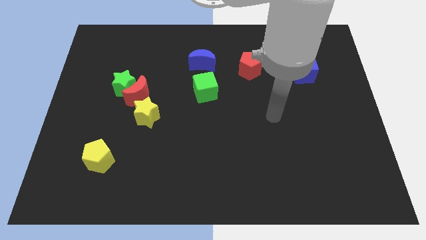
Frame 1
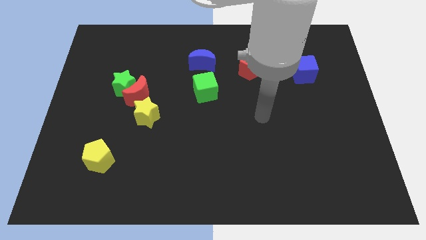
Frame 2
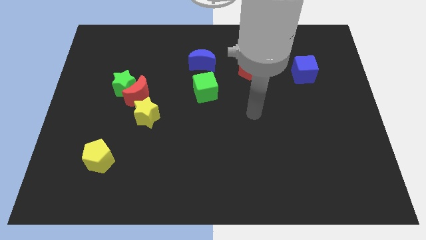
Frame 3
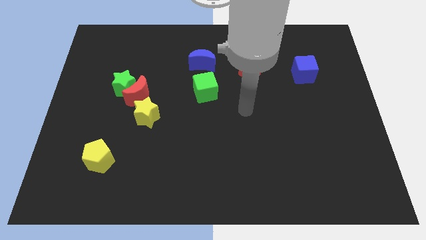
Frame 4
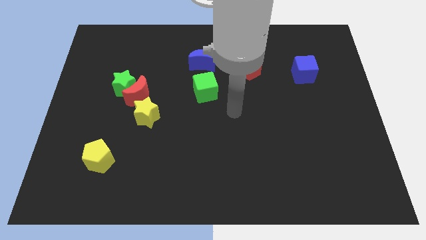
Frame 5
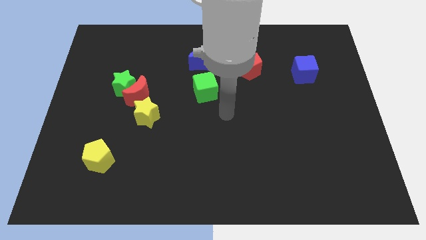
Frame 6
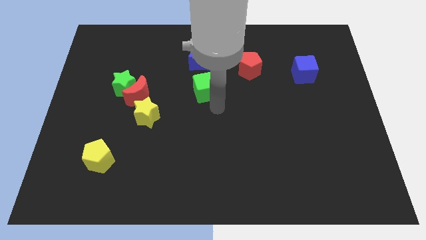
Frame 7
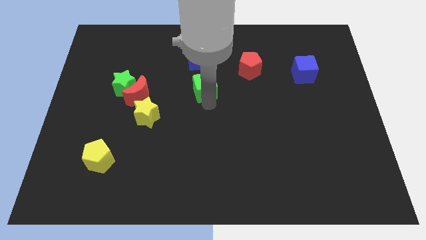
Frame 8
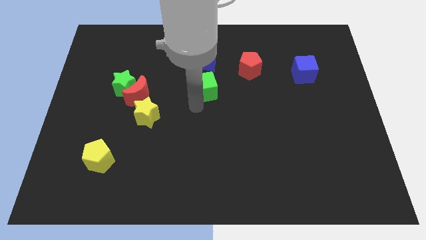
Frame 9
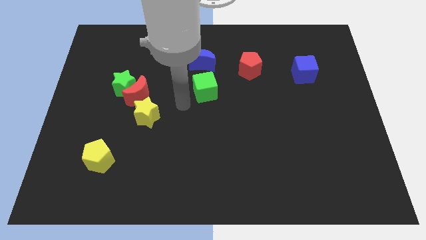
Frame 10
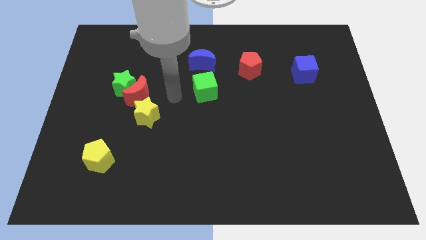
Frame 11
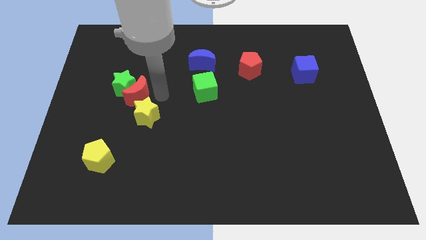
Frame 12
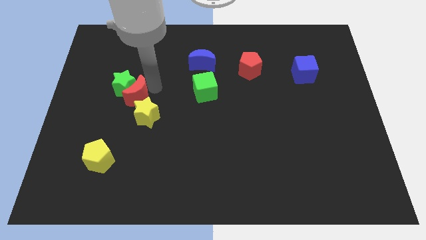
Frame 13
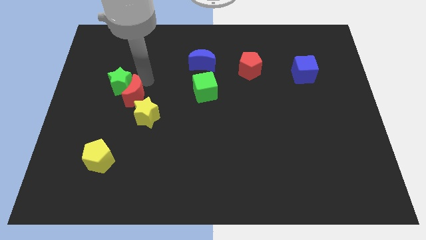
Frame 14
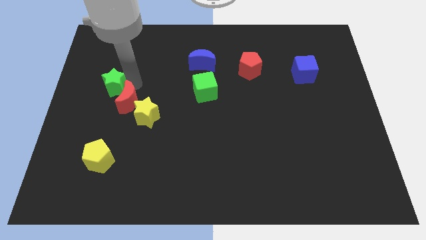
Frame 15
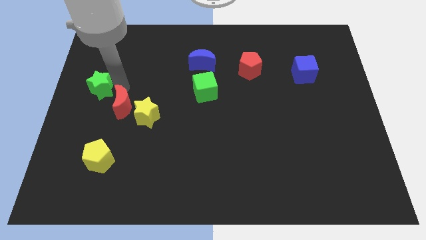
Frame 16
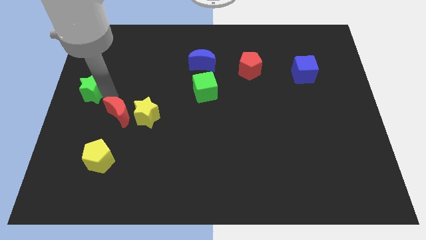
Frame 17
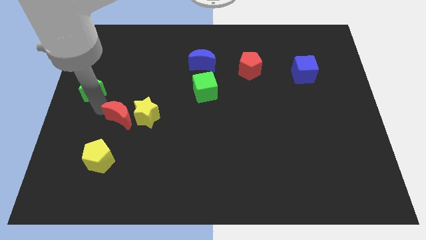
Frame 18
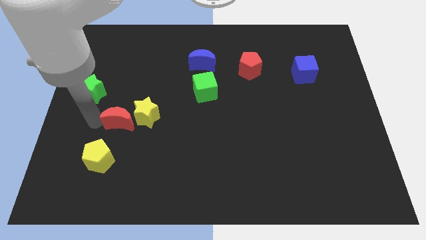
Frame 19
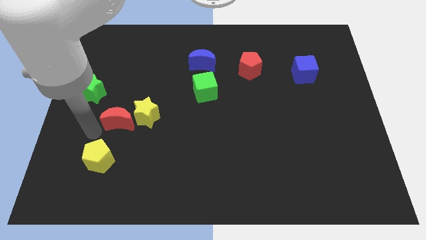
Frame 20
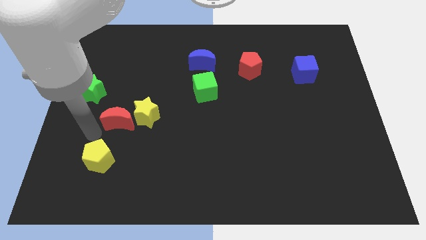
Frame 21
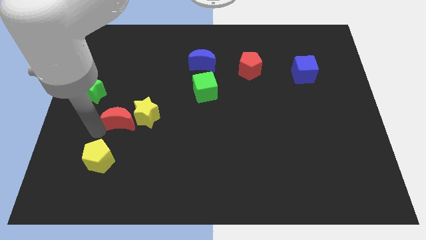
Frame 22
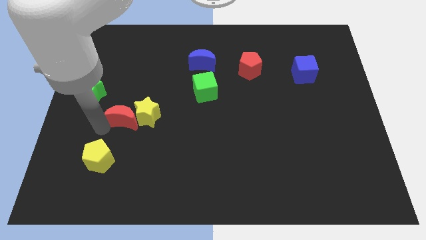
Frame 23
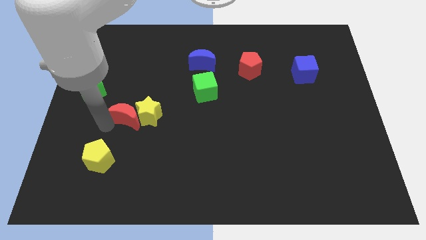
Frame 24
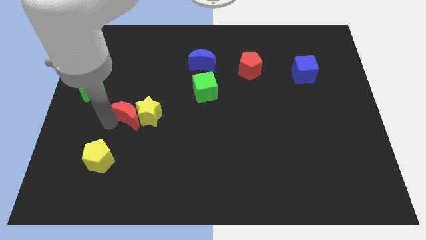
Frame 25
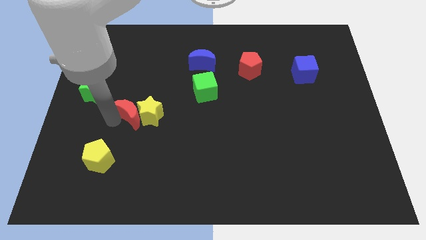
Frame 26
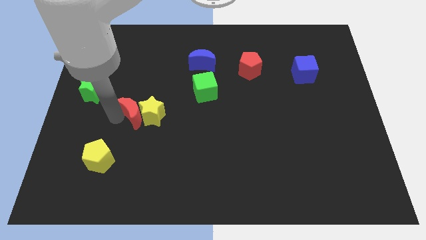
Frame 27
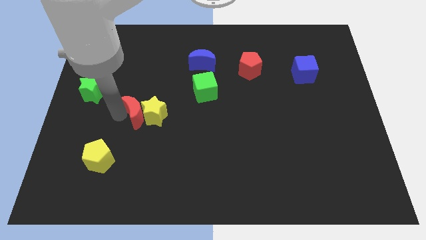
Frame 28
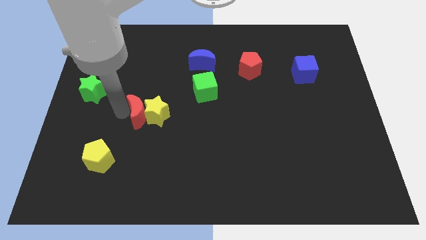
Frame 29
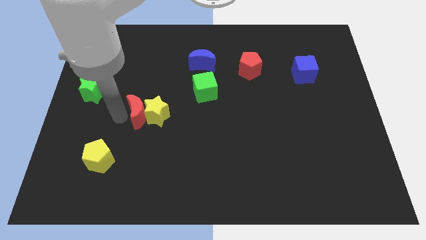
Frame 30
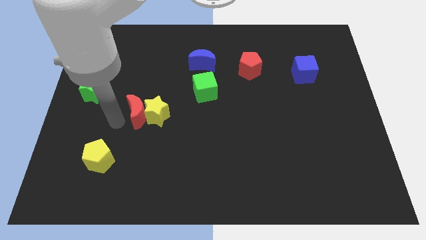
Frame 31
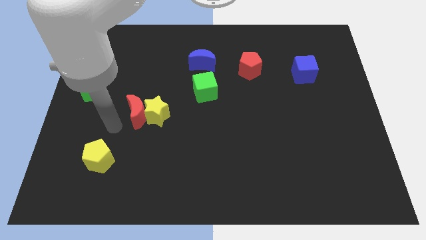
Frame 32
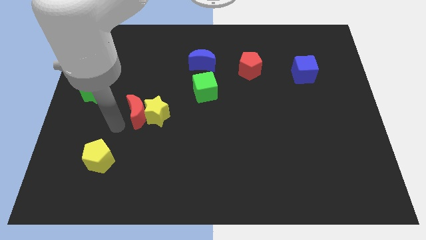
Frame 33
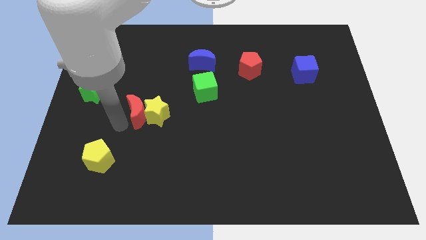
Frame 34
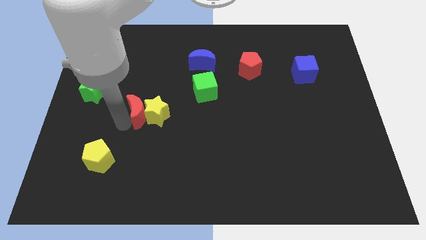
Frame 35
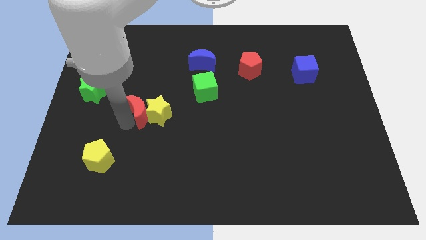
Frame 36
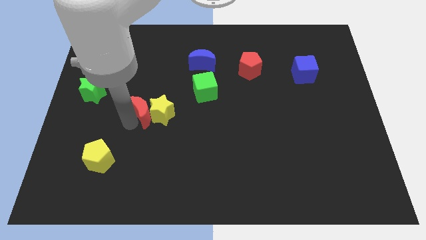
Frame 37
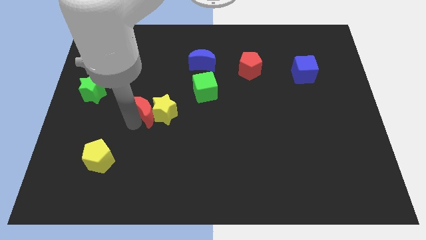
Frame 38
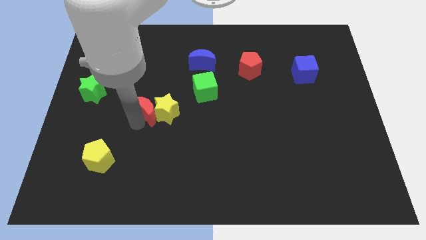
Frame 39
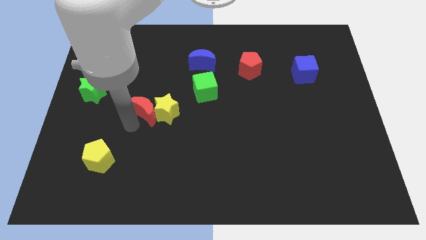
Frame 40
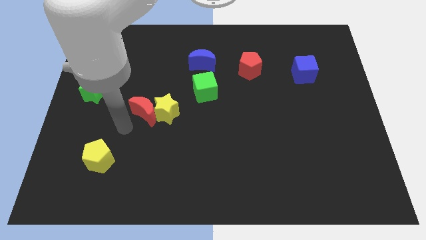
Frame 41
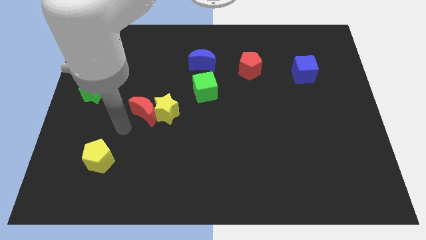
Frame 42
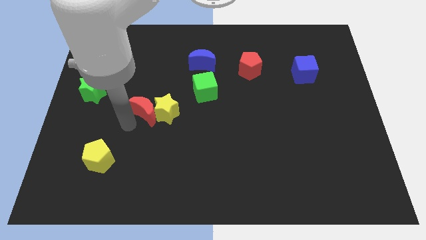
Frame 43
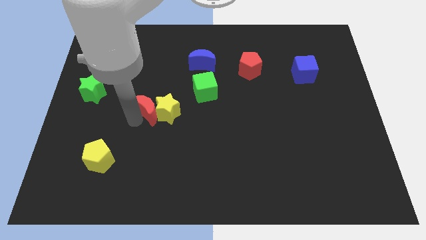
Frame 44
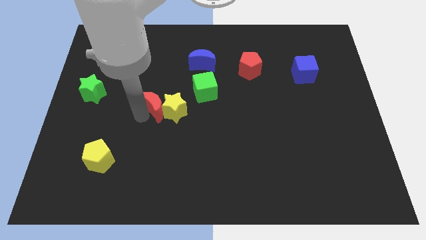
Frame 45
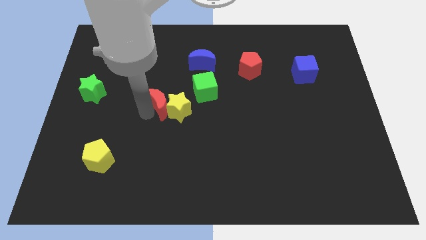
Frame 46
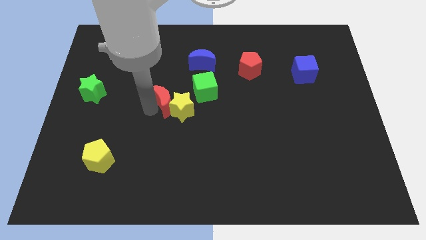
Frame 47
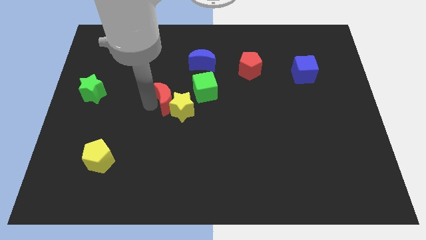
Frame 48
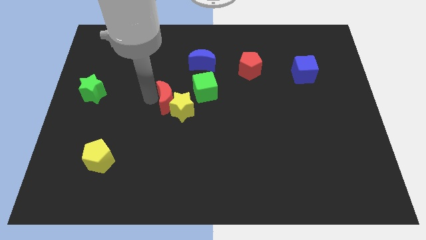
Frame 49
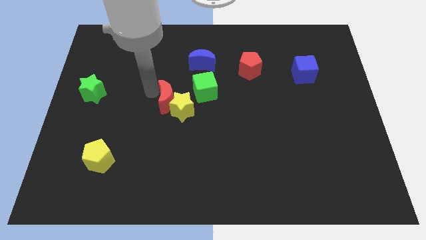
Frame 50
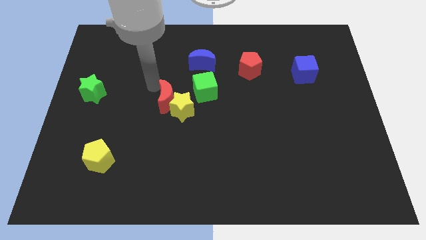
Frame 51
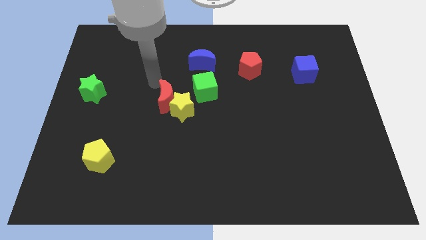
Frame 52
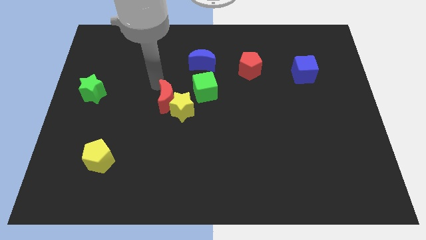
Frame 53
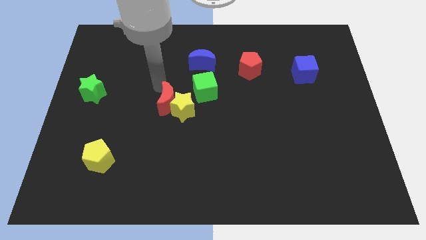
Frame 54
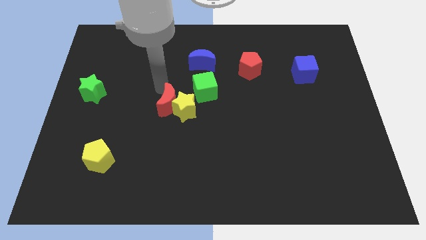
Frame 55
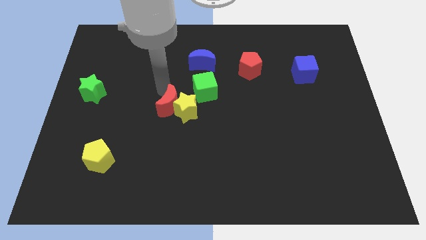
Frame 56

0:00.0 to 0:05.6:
move the red moon slightly downwards and right

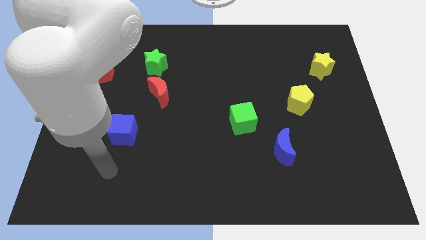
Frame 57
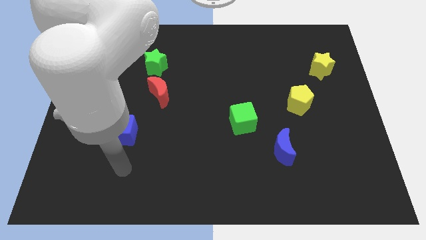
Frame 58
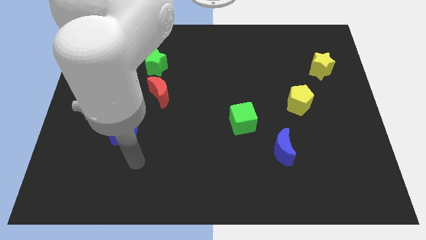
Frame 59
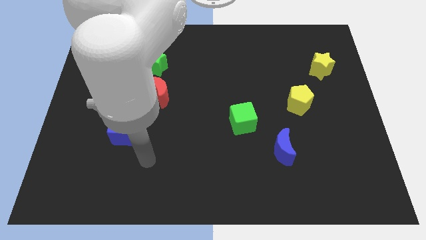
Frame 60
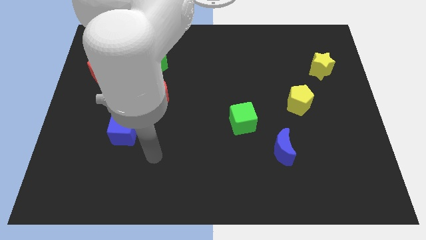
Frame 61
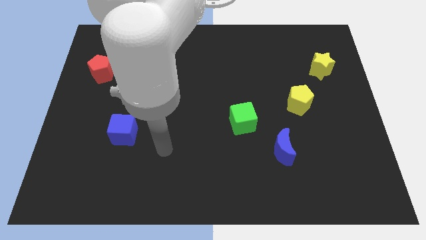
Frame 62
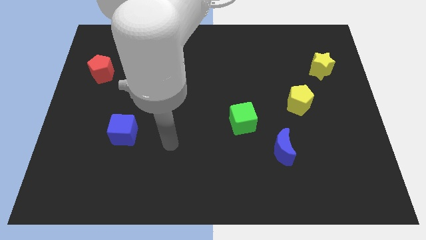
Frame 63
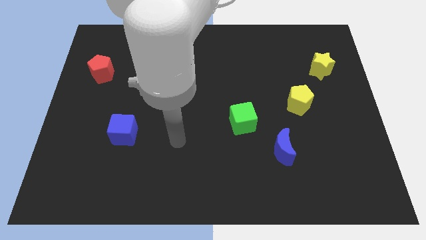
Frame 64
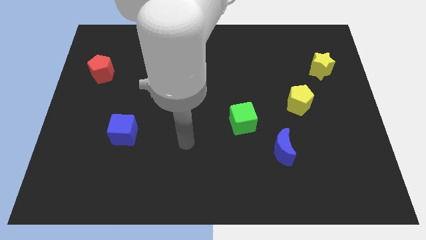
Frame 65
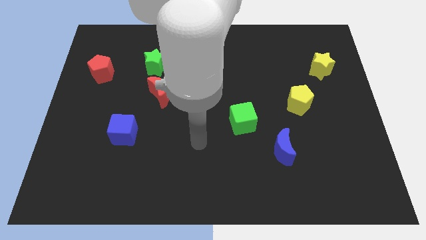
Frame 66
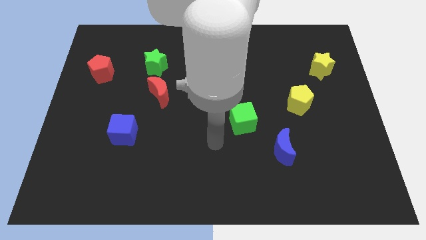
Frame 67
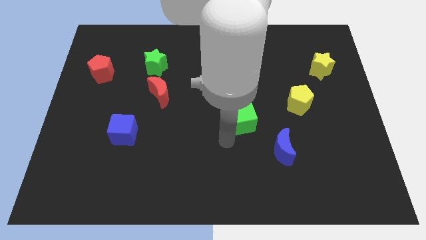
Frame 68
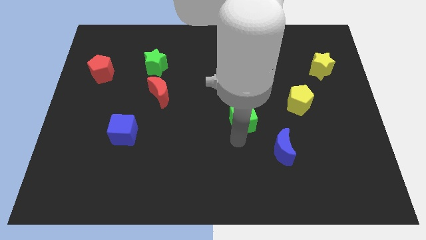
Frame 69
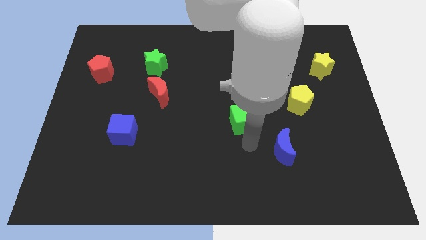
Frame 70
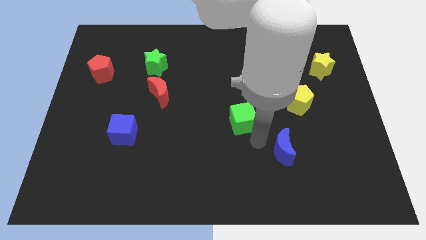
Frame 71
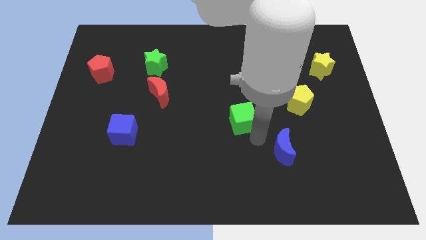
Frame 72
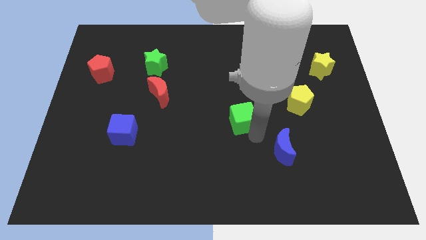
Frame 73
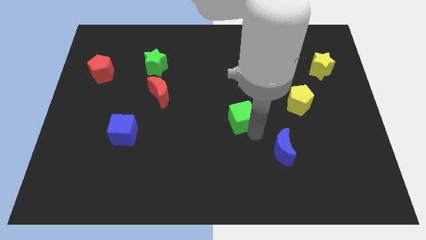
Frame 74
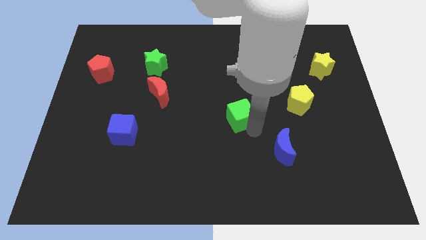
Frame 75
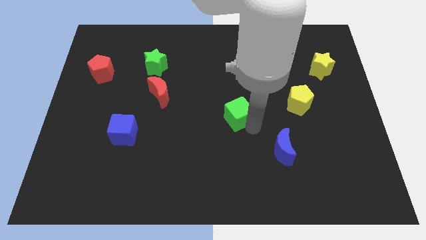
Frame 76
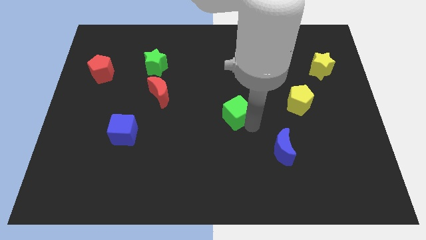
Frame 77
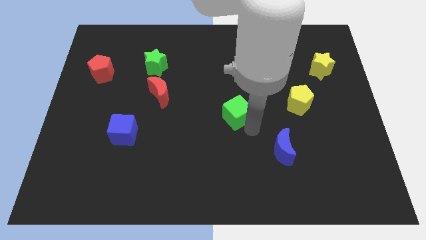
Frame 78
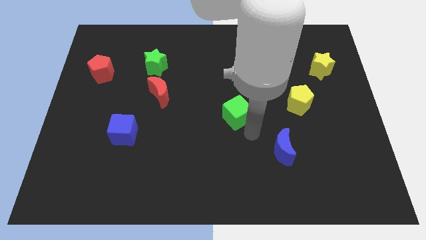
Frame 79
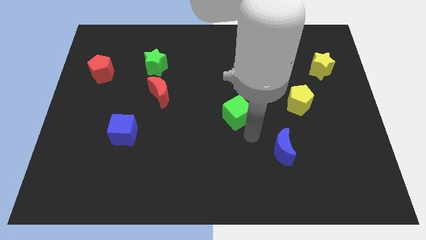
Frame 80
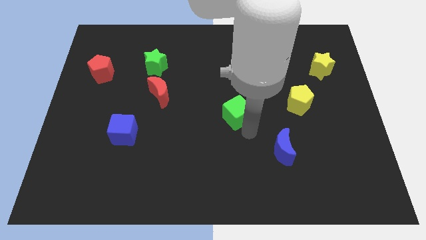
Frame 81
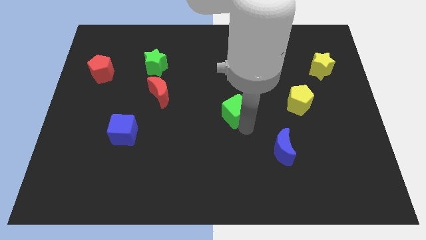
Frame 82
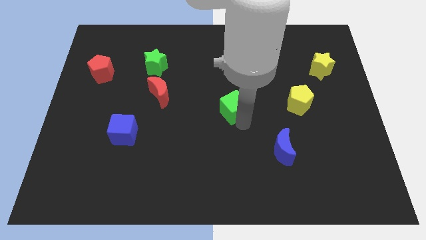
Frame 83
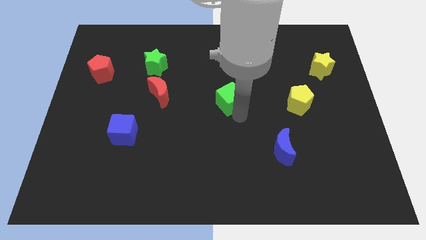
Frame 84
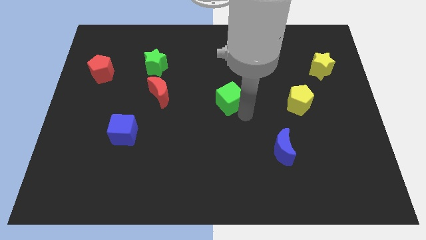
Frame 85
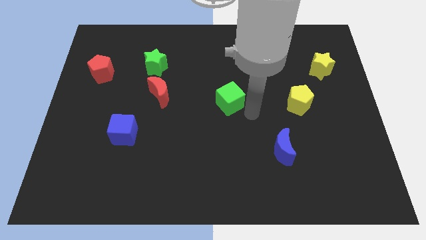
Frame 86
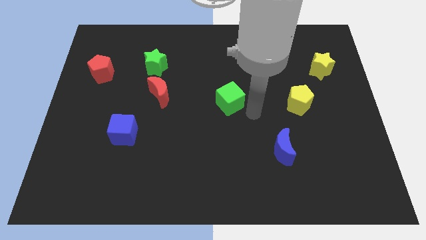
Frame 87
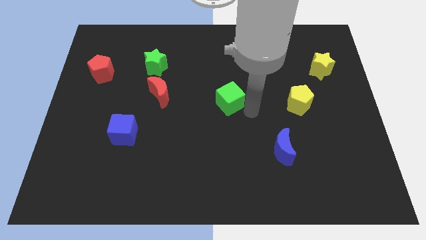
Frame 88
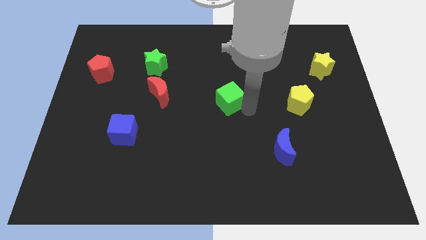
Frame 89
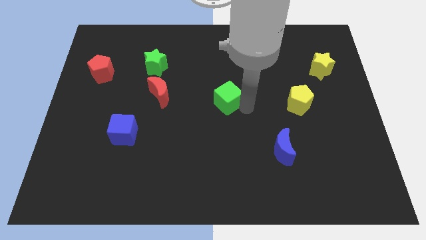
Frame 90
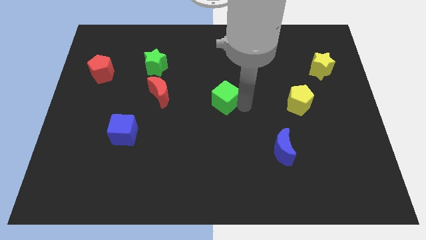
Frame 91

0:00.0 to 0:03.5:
push the green cube a little bit upwards and left
